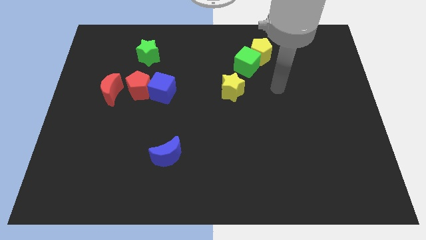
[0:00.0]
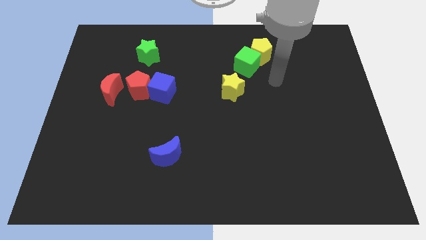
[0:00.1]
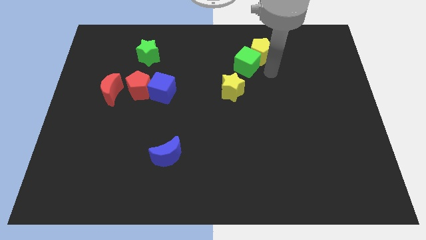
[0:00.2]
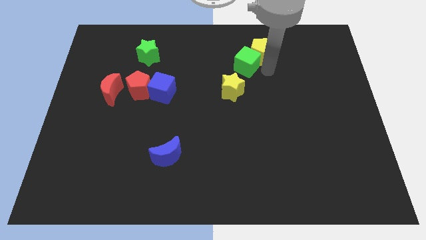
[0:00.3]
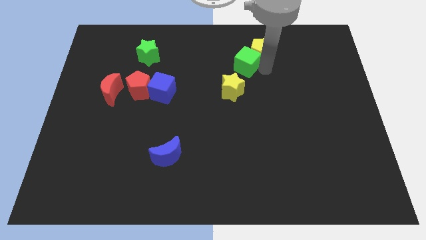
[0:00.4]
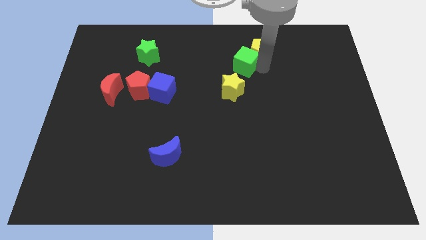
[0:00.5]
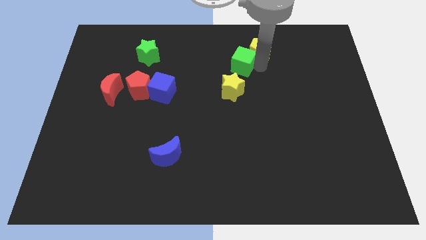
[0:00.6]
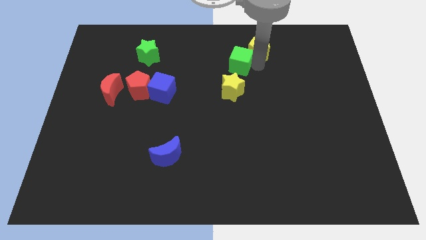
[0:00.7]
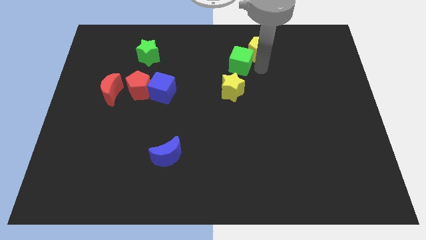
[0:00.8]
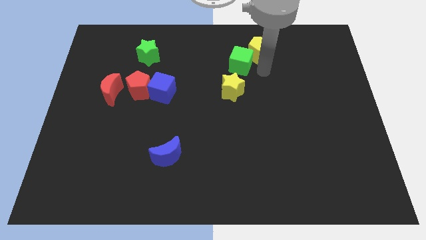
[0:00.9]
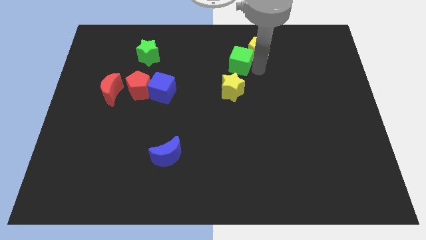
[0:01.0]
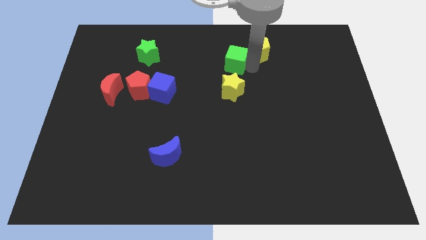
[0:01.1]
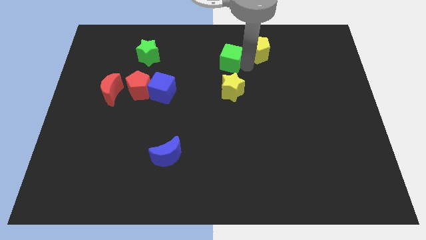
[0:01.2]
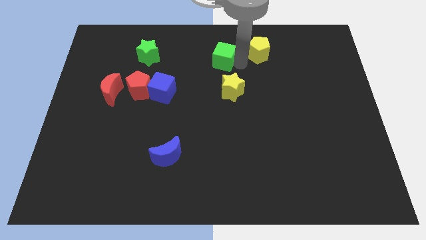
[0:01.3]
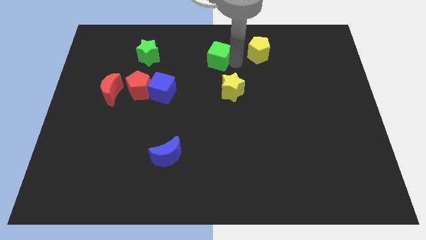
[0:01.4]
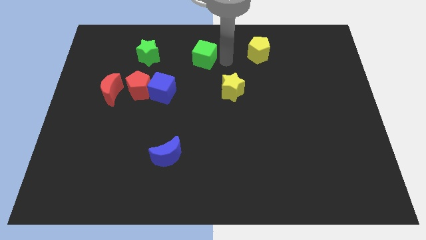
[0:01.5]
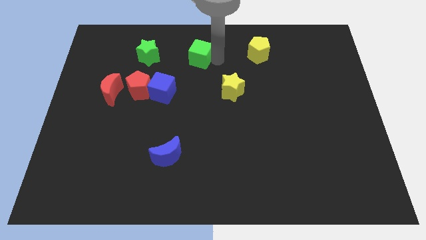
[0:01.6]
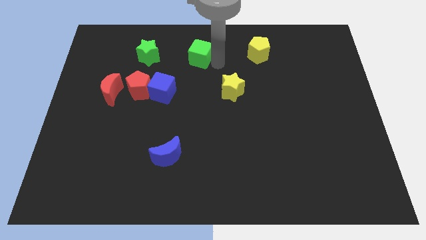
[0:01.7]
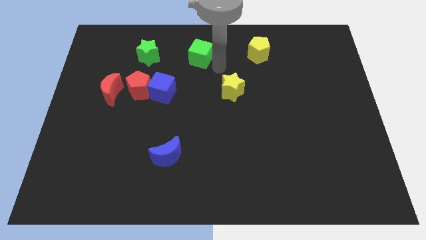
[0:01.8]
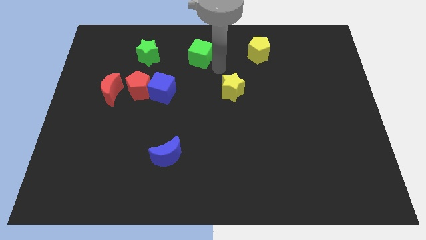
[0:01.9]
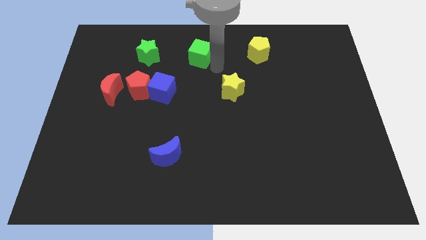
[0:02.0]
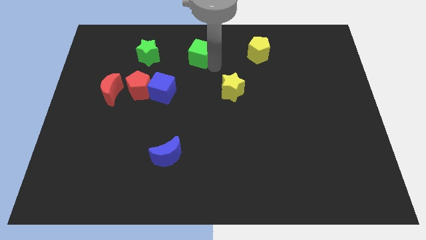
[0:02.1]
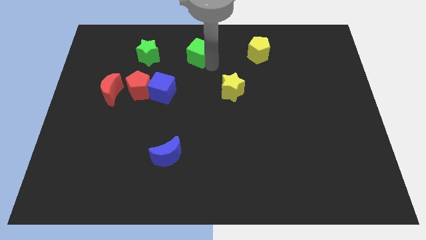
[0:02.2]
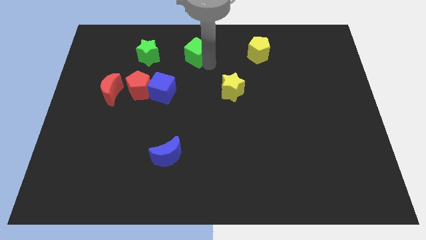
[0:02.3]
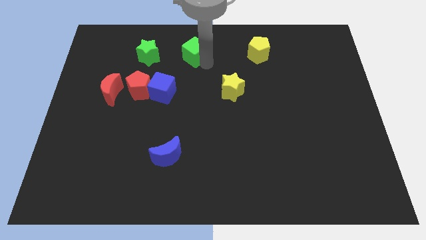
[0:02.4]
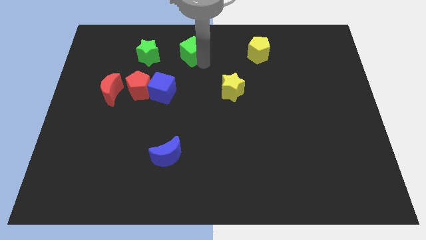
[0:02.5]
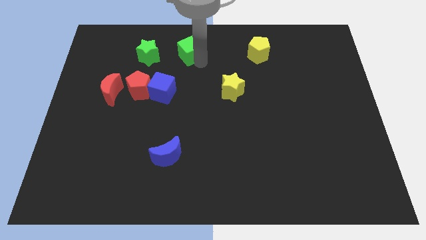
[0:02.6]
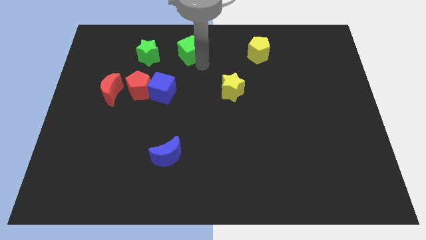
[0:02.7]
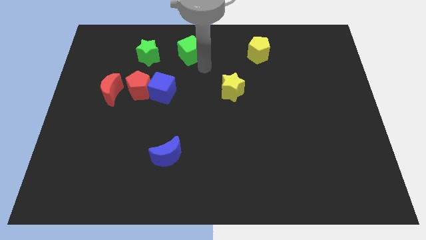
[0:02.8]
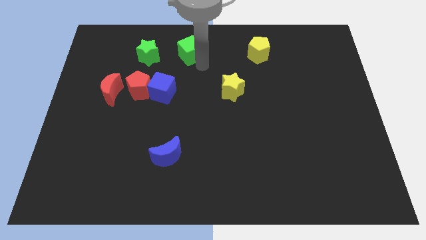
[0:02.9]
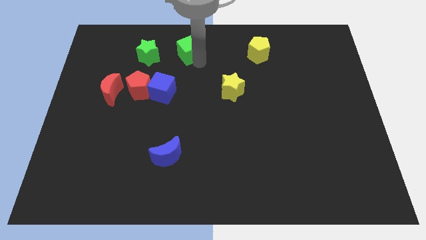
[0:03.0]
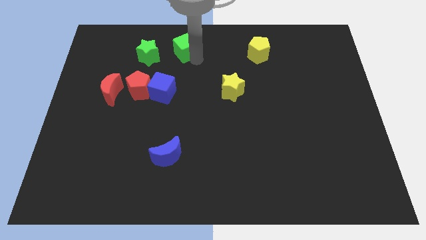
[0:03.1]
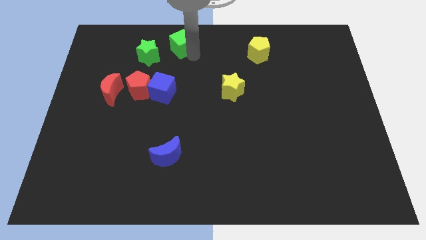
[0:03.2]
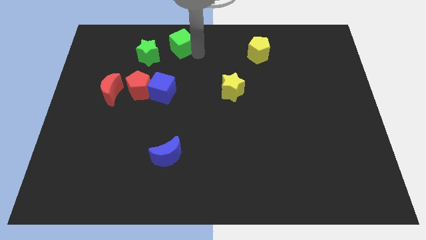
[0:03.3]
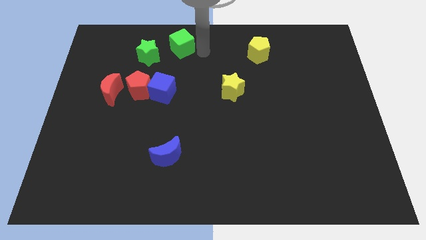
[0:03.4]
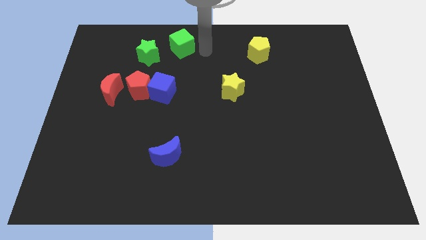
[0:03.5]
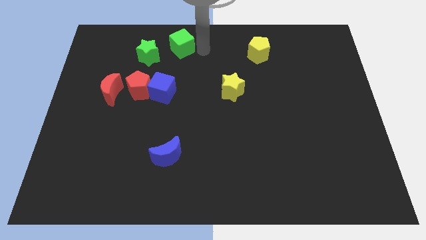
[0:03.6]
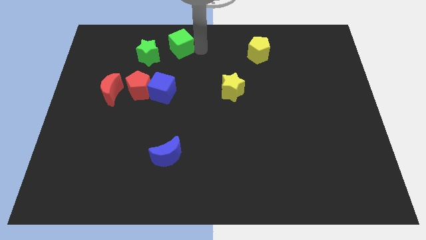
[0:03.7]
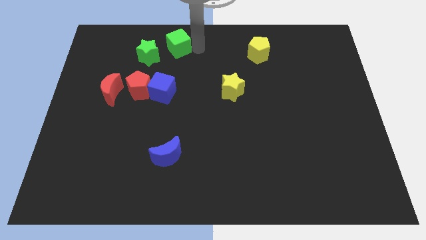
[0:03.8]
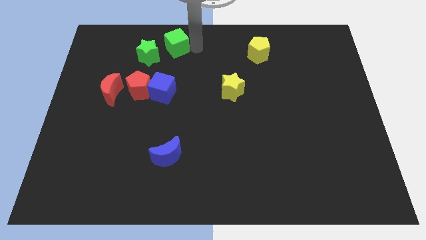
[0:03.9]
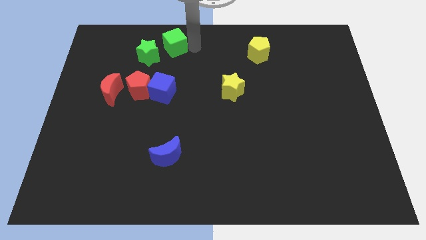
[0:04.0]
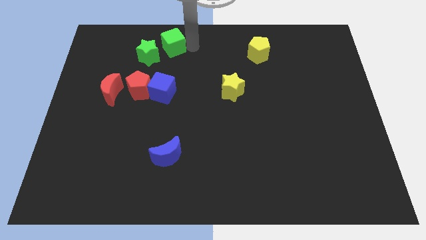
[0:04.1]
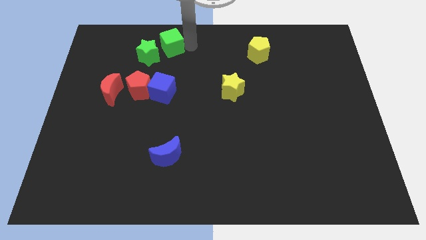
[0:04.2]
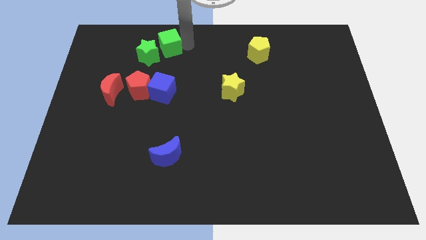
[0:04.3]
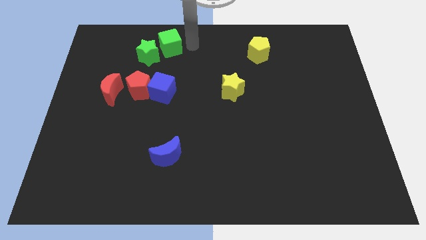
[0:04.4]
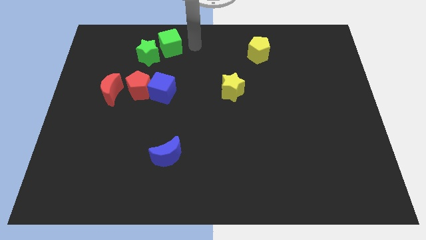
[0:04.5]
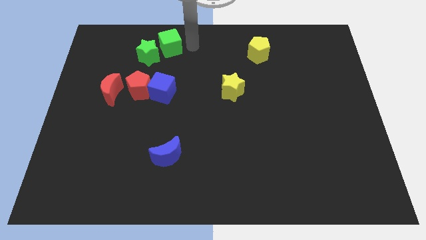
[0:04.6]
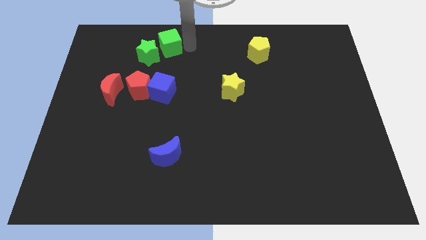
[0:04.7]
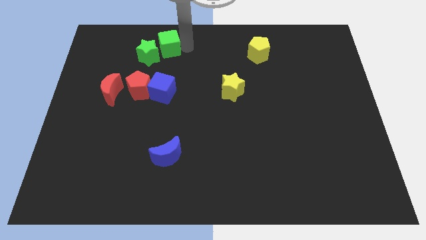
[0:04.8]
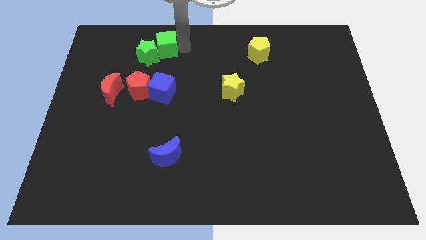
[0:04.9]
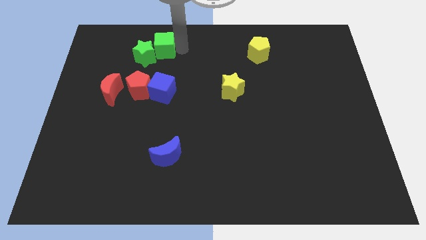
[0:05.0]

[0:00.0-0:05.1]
push the green cube to the left

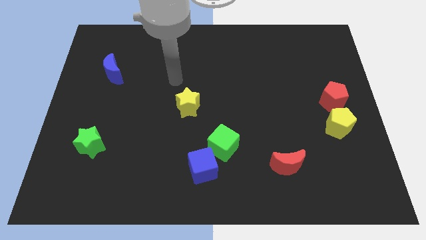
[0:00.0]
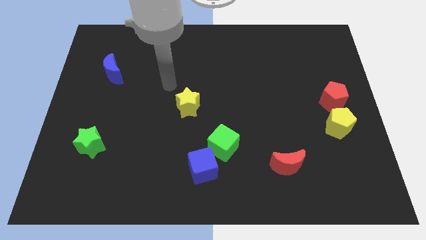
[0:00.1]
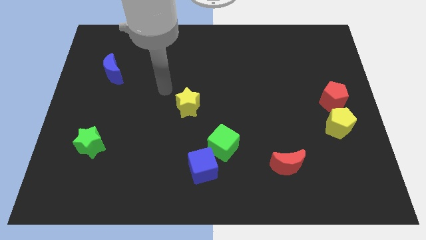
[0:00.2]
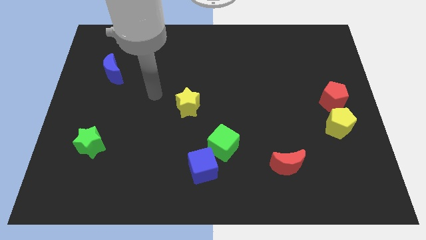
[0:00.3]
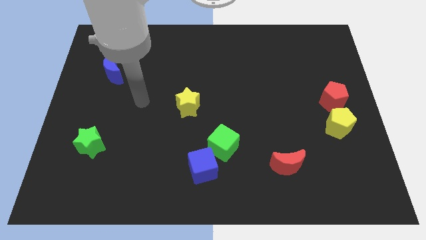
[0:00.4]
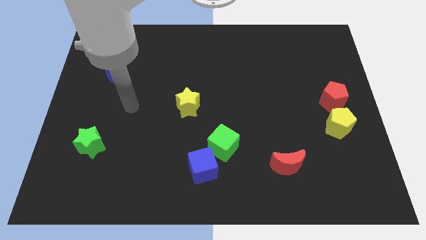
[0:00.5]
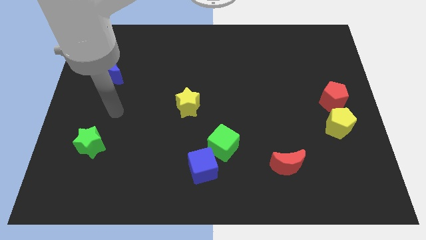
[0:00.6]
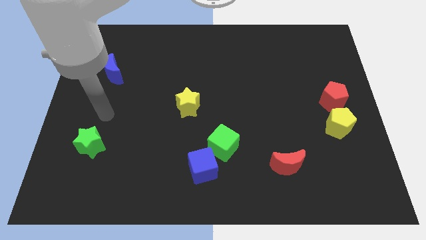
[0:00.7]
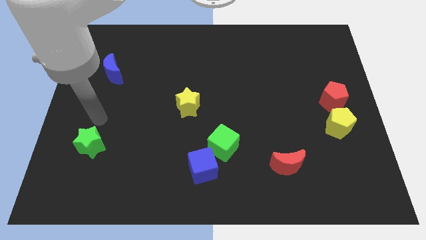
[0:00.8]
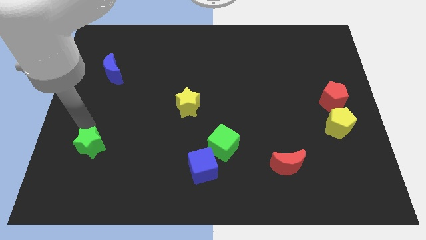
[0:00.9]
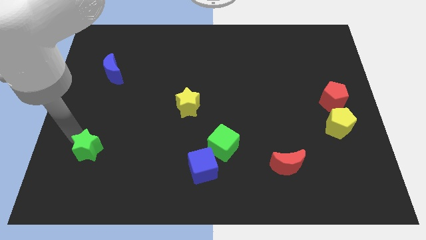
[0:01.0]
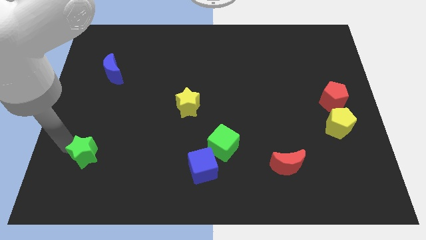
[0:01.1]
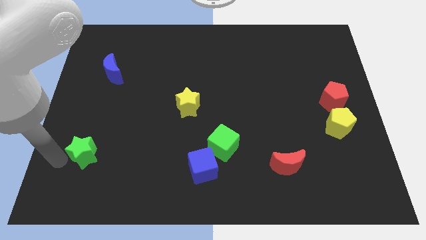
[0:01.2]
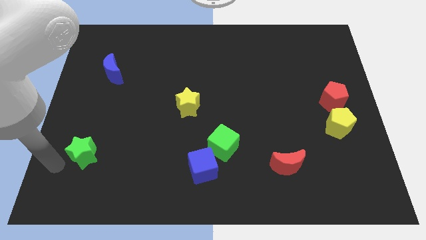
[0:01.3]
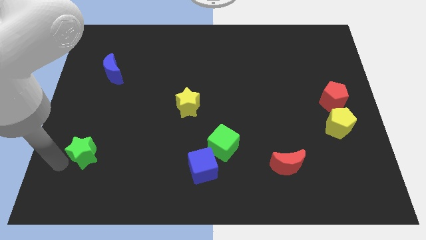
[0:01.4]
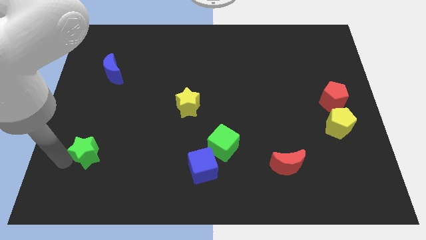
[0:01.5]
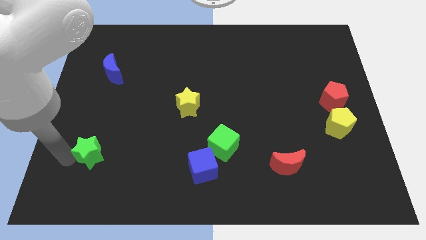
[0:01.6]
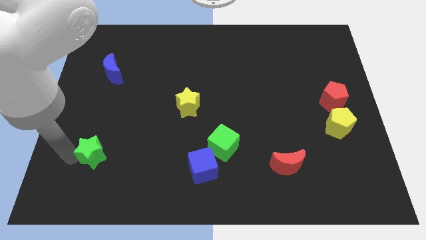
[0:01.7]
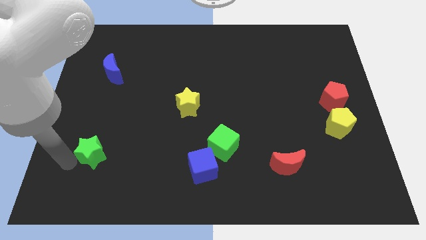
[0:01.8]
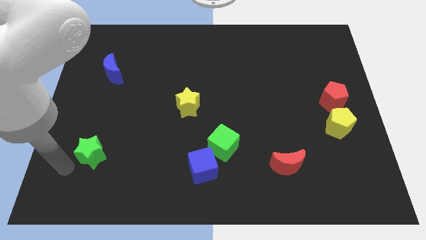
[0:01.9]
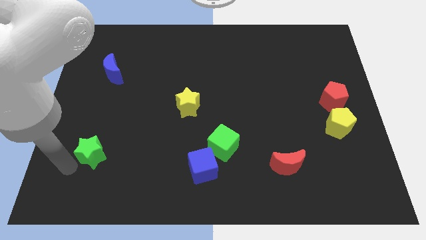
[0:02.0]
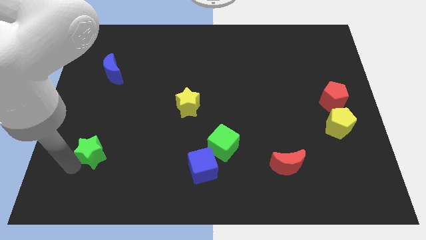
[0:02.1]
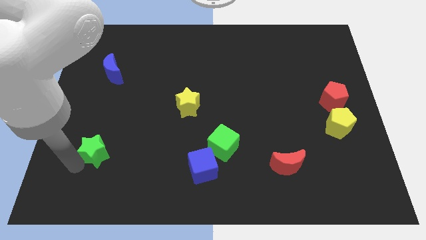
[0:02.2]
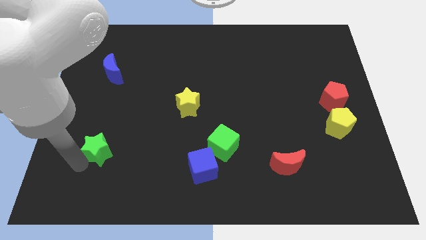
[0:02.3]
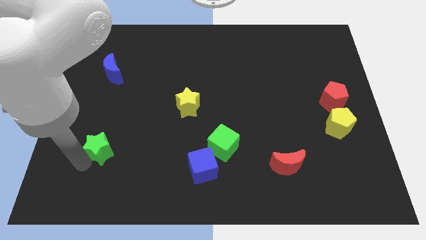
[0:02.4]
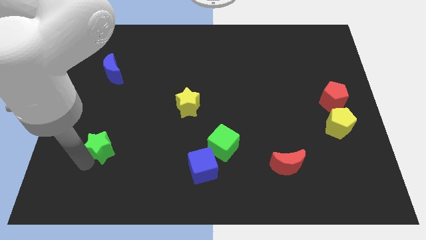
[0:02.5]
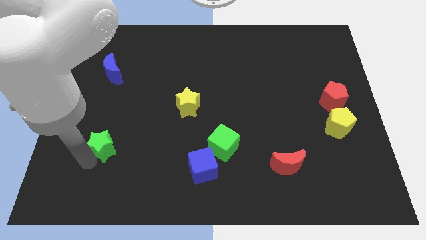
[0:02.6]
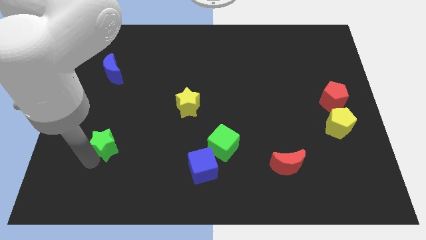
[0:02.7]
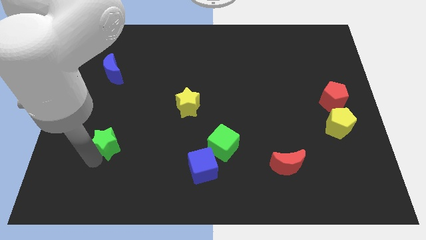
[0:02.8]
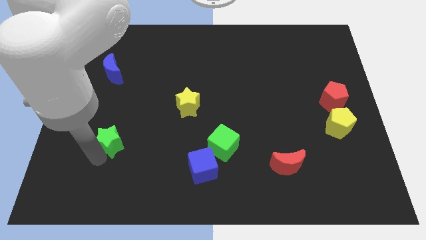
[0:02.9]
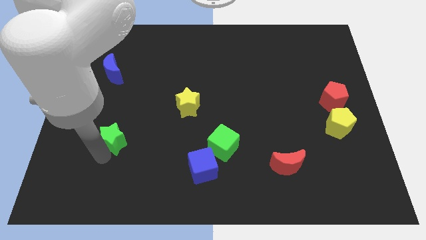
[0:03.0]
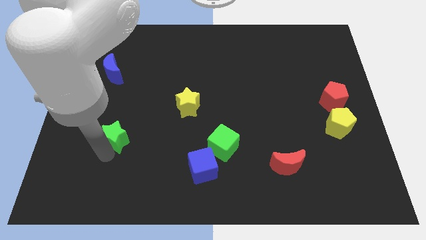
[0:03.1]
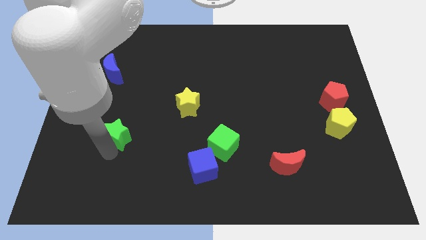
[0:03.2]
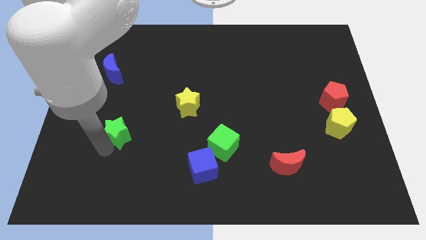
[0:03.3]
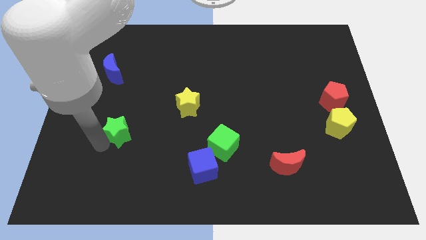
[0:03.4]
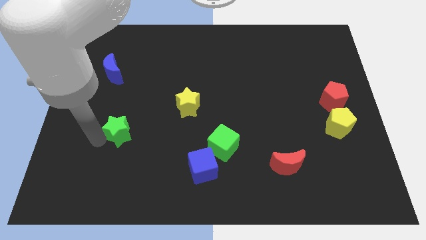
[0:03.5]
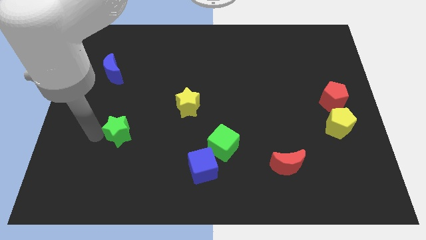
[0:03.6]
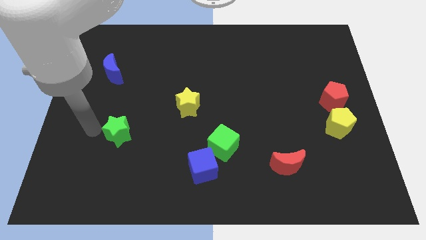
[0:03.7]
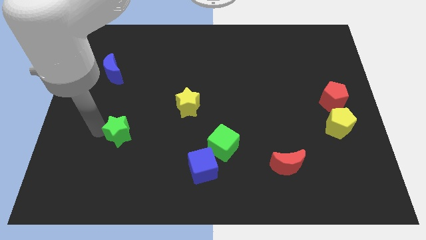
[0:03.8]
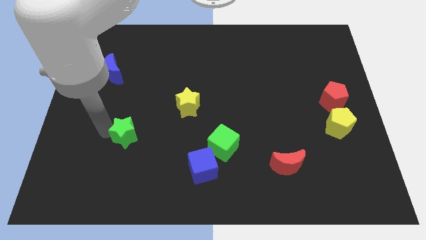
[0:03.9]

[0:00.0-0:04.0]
move the green star to the right a little
